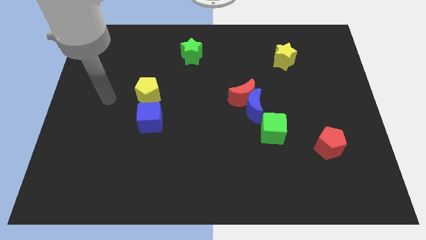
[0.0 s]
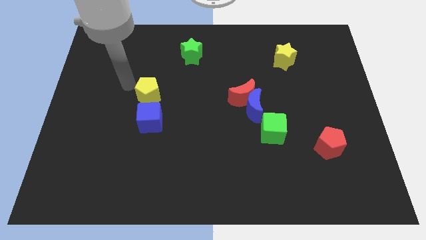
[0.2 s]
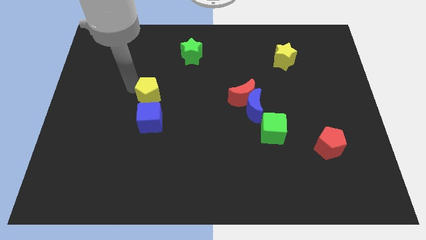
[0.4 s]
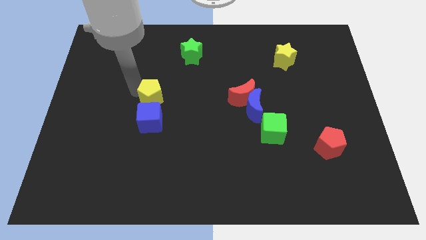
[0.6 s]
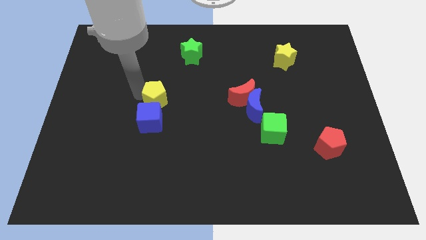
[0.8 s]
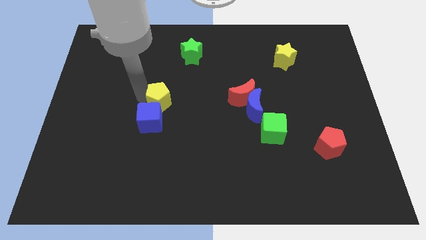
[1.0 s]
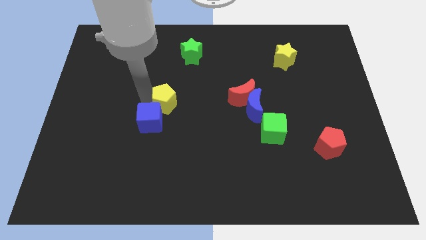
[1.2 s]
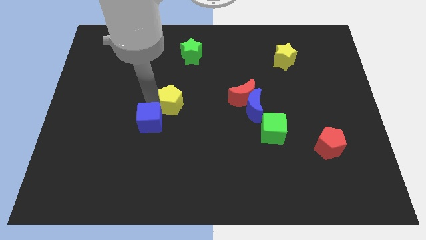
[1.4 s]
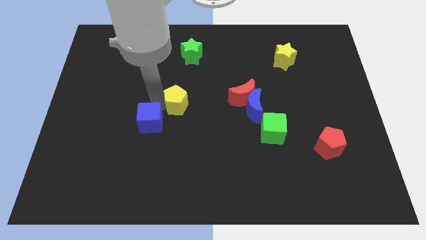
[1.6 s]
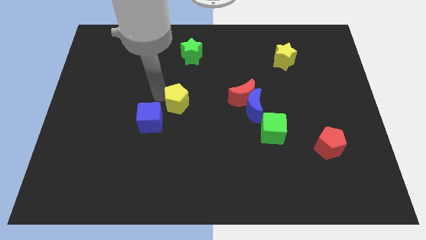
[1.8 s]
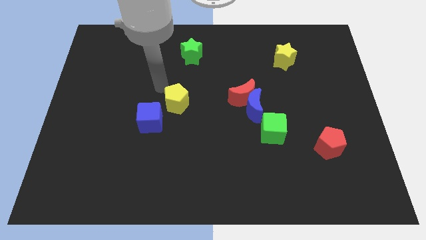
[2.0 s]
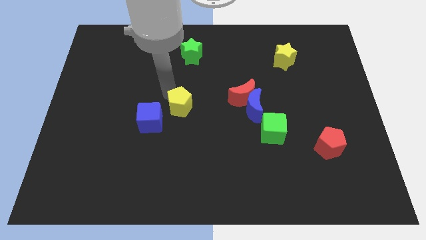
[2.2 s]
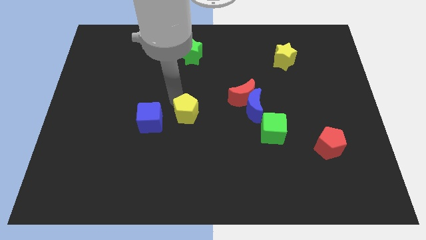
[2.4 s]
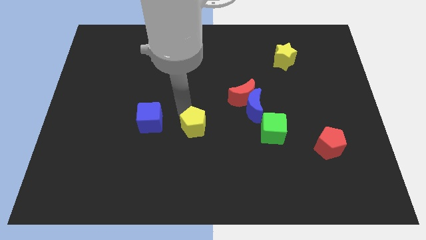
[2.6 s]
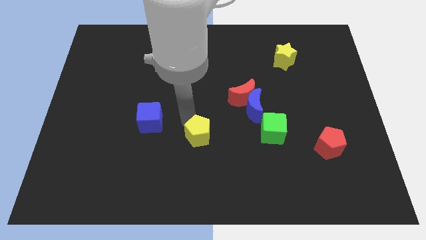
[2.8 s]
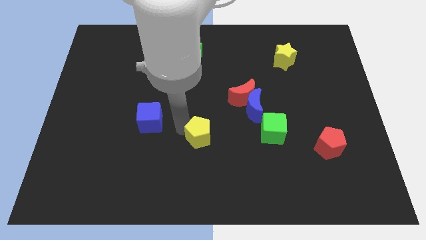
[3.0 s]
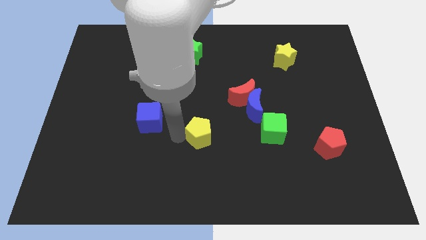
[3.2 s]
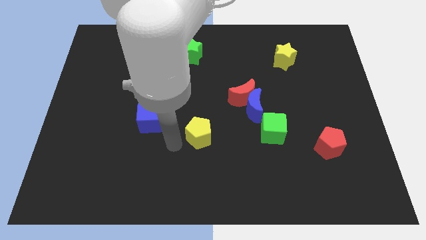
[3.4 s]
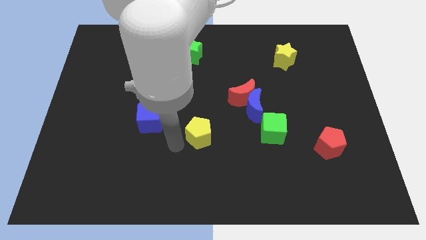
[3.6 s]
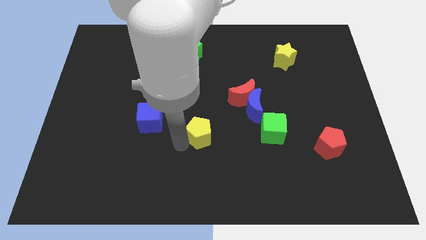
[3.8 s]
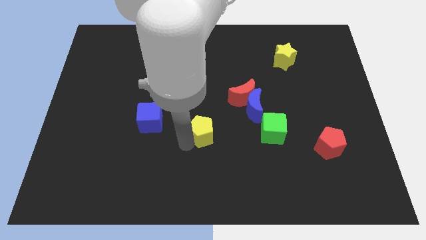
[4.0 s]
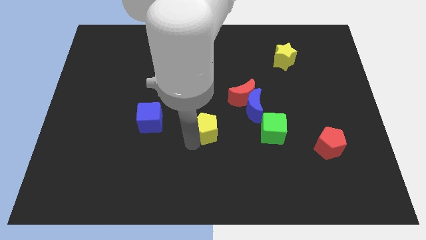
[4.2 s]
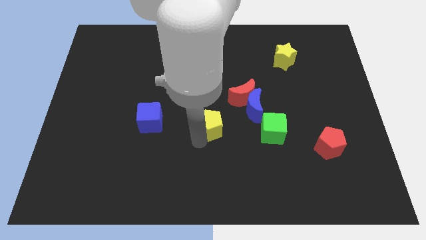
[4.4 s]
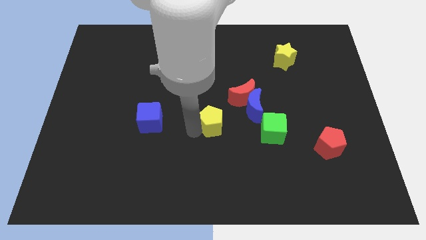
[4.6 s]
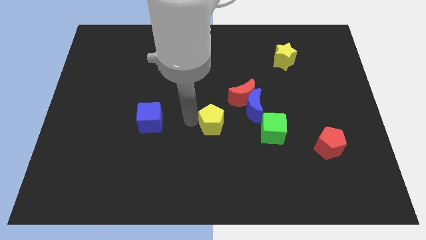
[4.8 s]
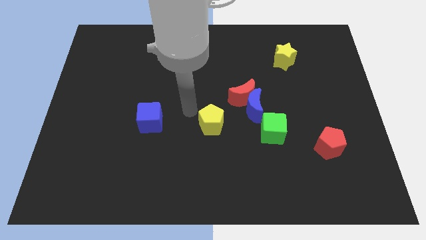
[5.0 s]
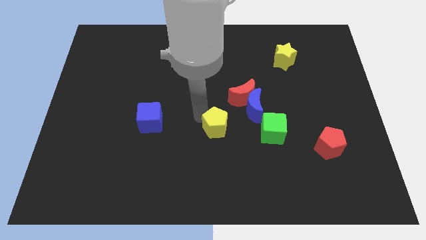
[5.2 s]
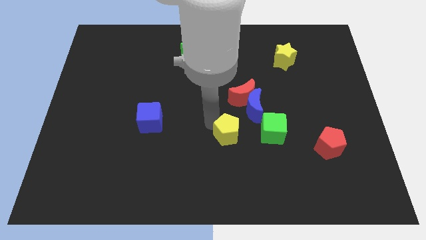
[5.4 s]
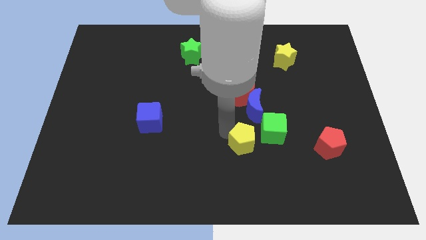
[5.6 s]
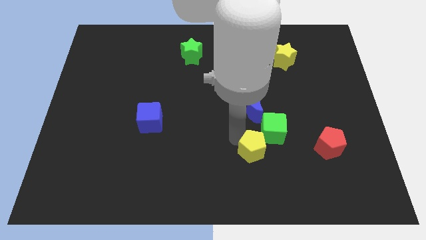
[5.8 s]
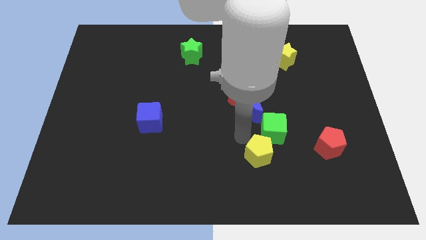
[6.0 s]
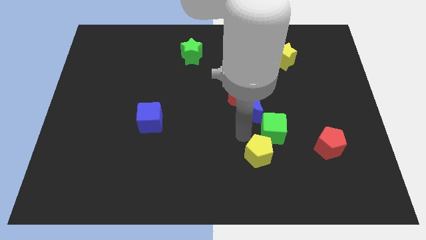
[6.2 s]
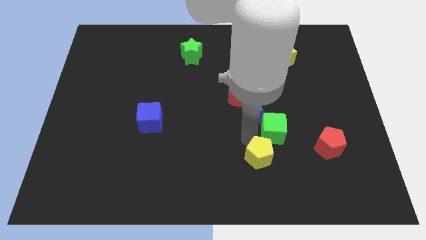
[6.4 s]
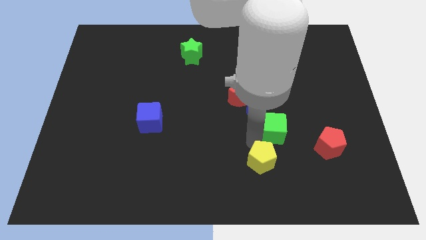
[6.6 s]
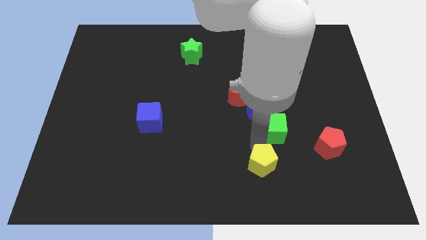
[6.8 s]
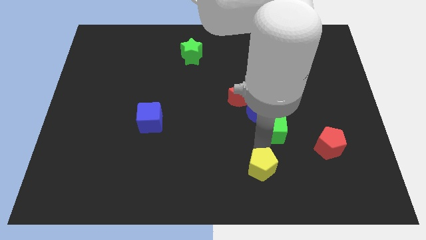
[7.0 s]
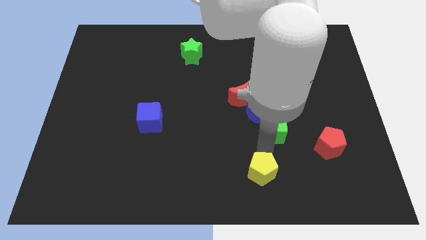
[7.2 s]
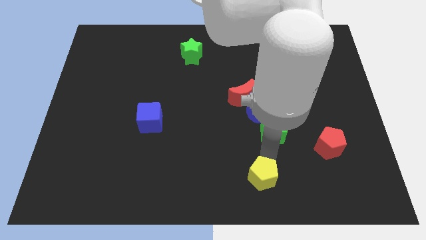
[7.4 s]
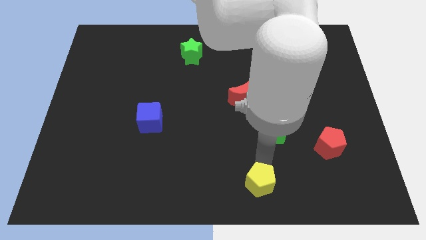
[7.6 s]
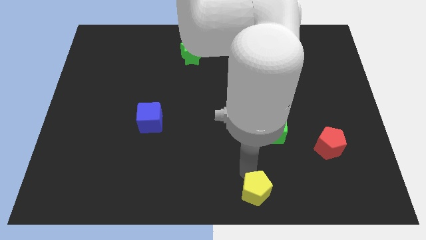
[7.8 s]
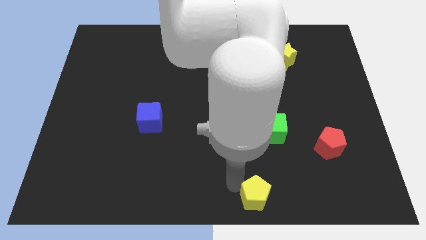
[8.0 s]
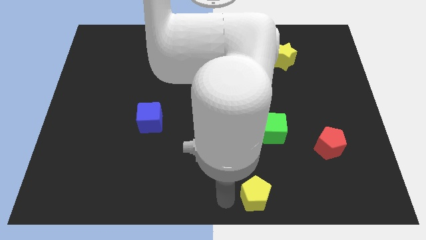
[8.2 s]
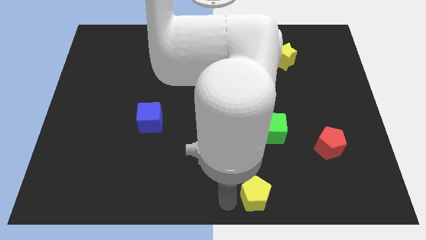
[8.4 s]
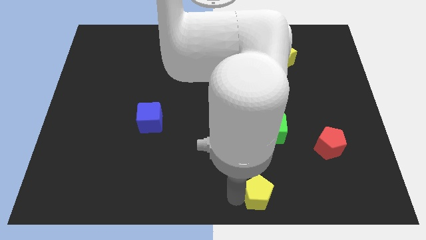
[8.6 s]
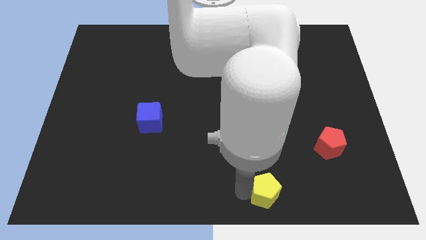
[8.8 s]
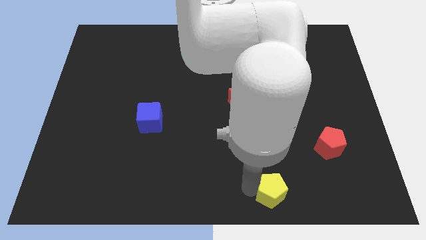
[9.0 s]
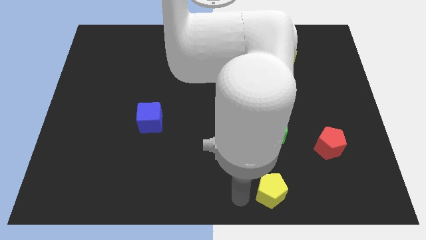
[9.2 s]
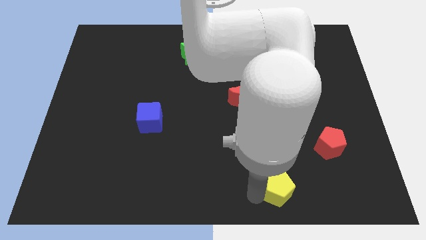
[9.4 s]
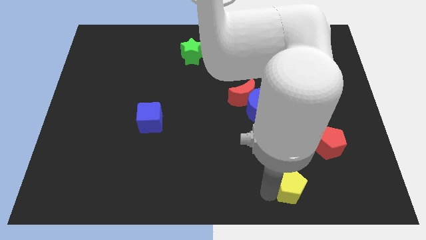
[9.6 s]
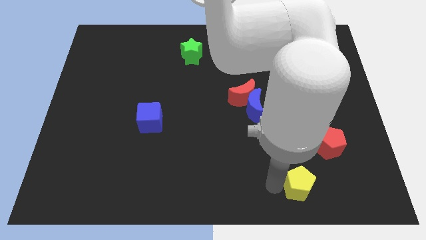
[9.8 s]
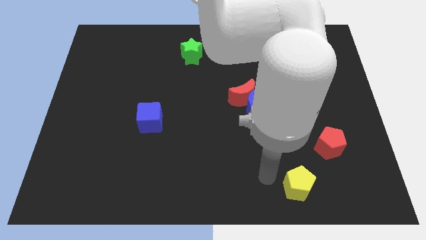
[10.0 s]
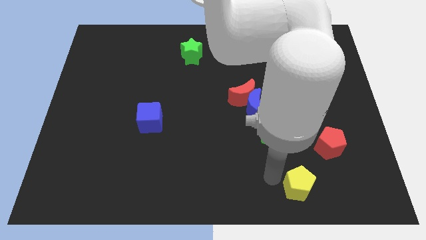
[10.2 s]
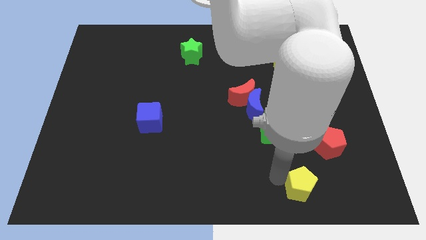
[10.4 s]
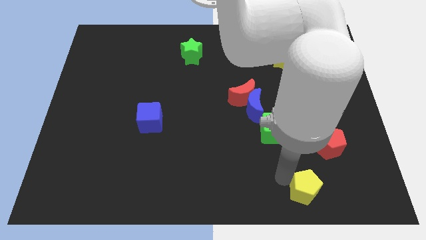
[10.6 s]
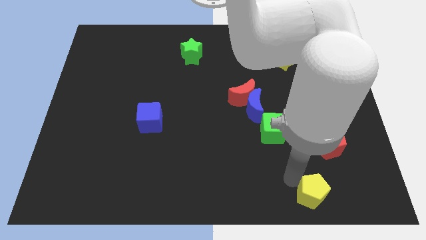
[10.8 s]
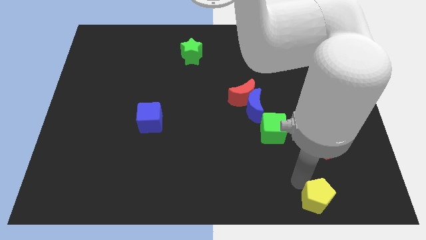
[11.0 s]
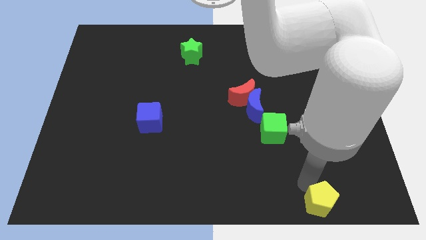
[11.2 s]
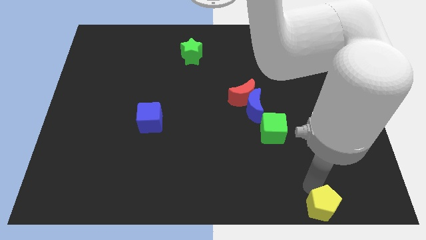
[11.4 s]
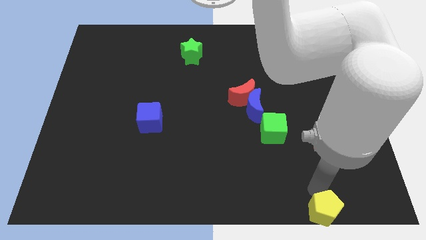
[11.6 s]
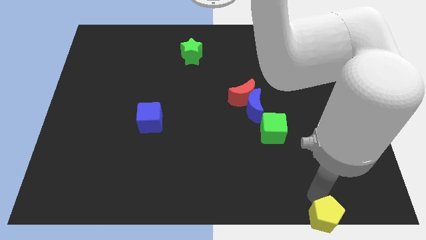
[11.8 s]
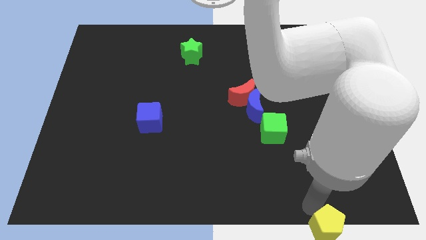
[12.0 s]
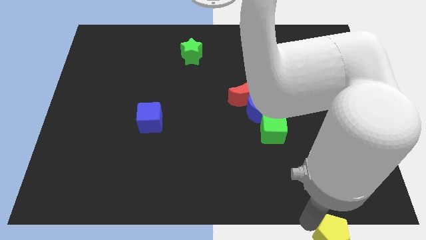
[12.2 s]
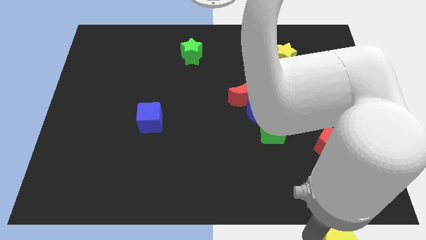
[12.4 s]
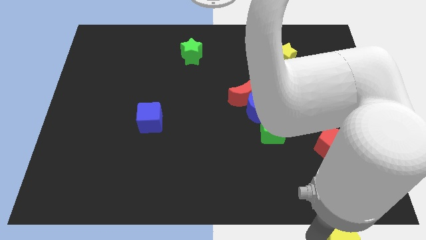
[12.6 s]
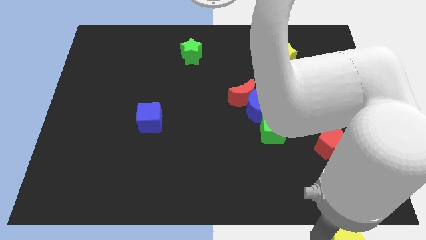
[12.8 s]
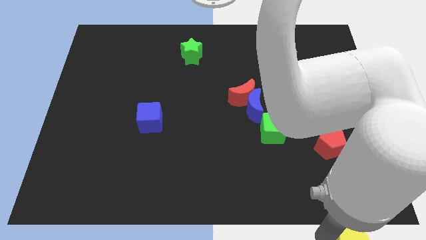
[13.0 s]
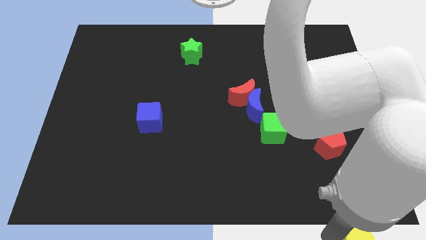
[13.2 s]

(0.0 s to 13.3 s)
push the yellow pentagon to the bottom right of the board
